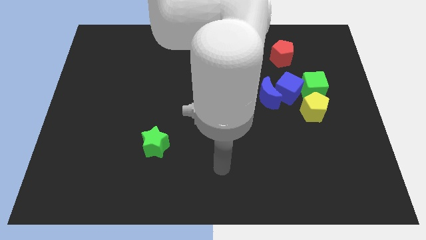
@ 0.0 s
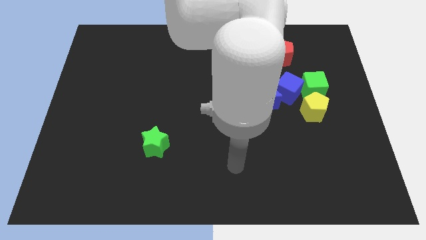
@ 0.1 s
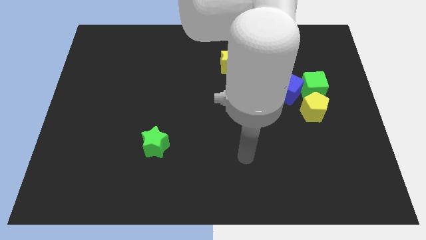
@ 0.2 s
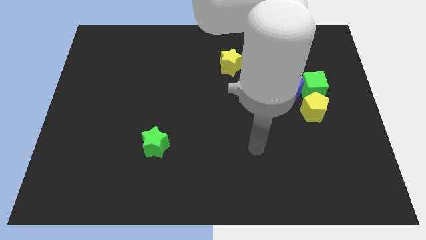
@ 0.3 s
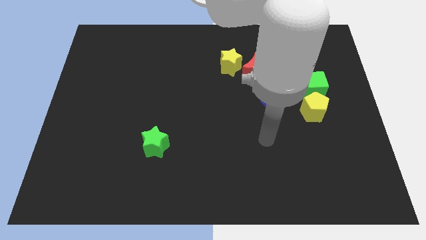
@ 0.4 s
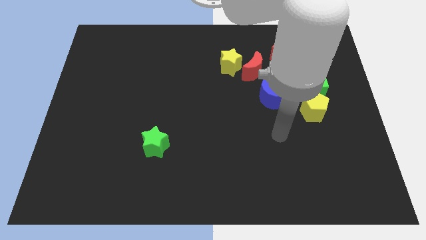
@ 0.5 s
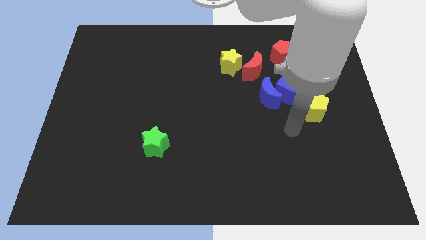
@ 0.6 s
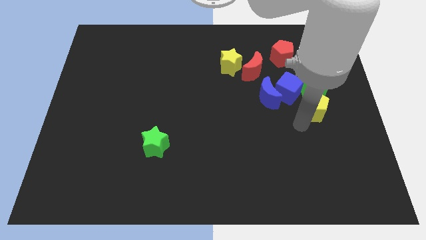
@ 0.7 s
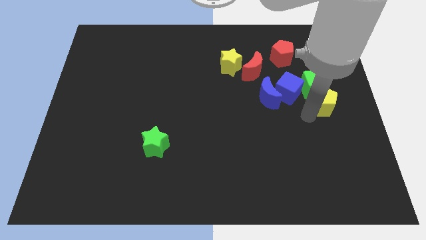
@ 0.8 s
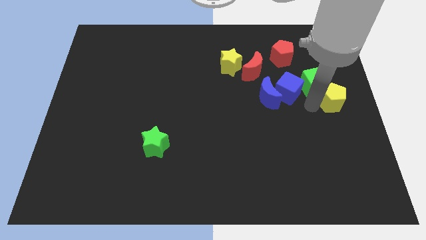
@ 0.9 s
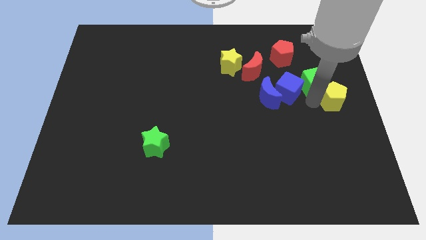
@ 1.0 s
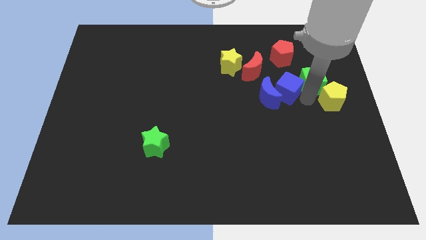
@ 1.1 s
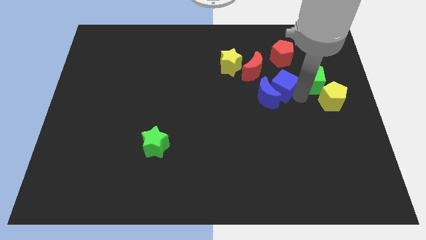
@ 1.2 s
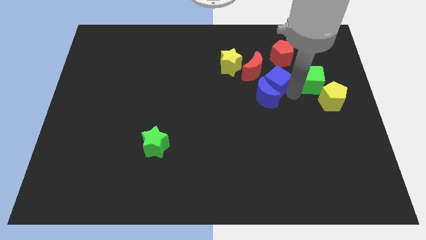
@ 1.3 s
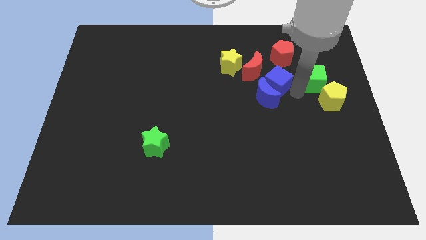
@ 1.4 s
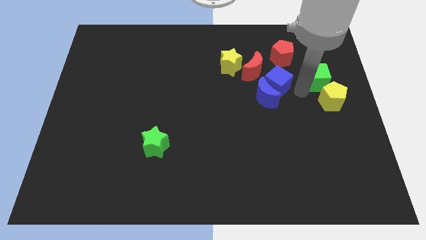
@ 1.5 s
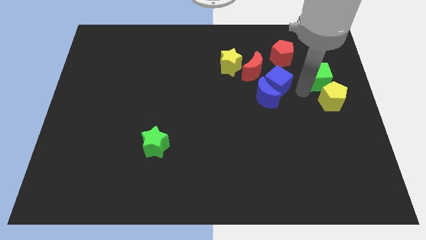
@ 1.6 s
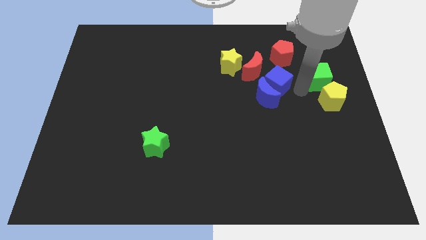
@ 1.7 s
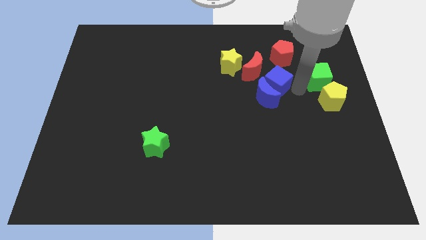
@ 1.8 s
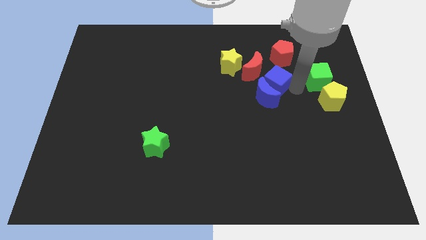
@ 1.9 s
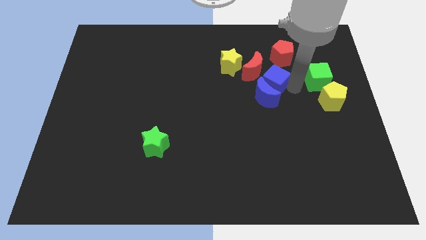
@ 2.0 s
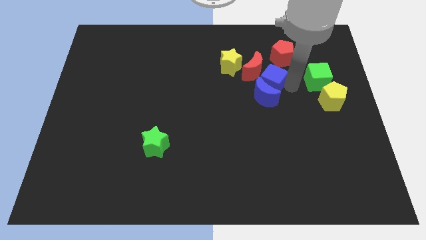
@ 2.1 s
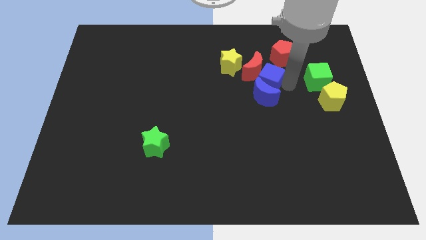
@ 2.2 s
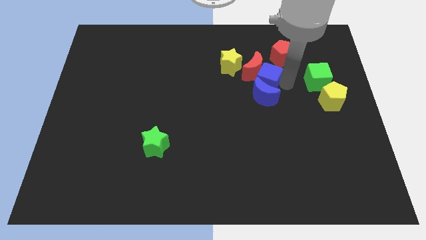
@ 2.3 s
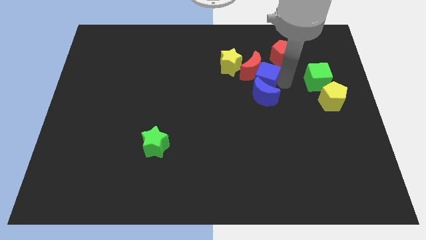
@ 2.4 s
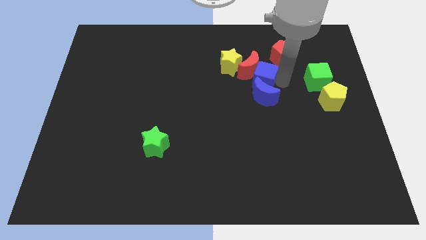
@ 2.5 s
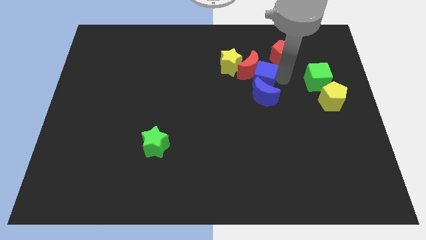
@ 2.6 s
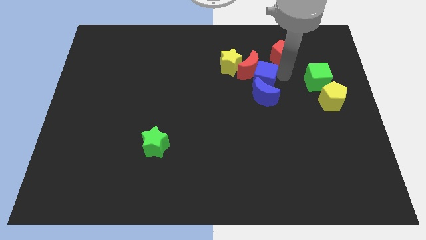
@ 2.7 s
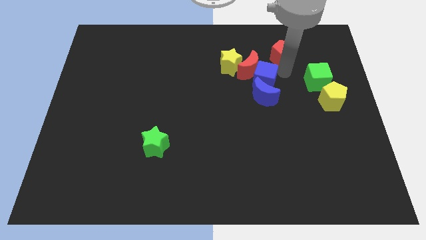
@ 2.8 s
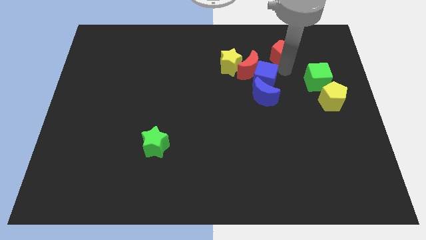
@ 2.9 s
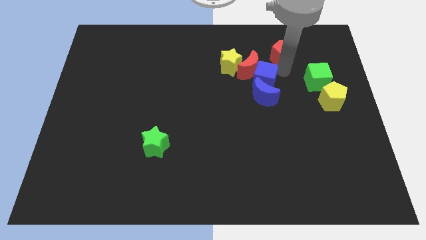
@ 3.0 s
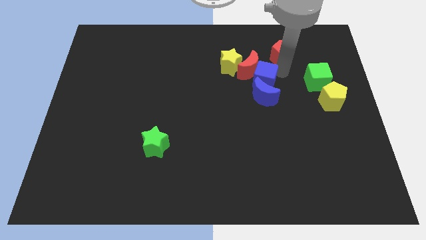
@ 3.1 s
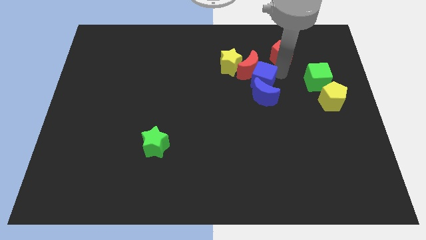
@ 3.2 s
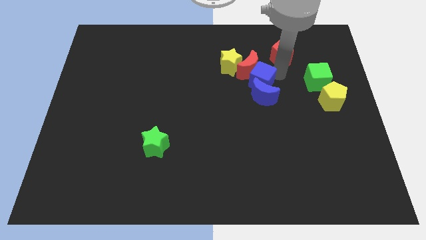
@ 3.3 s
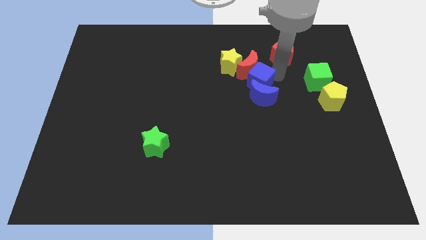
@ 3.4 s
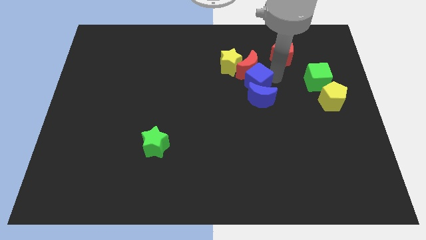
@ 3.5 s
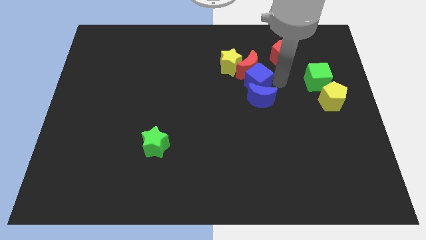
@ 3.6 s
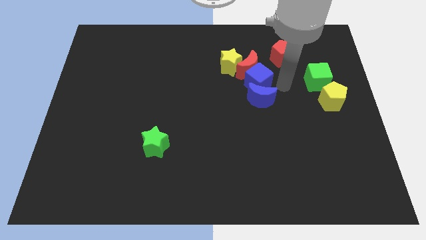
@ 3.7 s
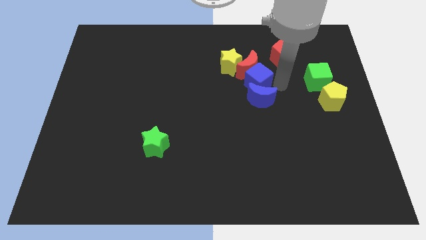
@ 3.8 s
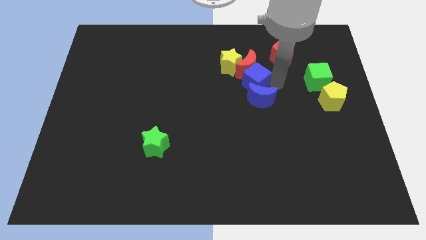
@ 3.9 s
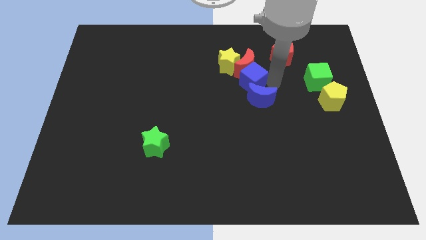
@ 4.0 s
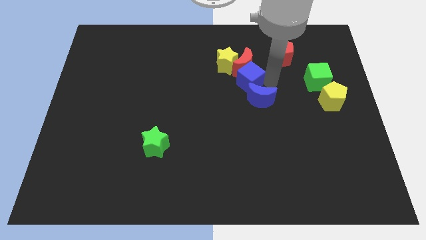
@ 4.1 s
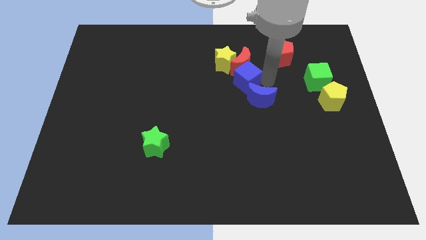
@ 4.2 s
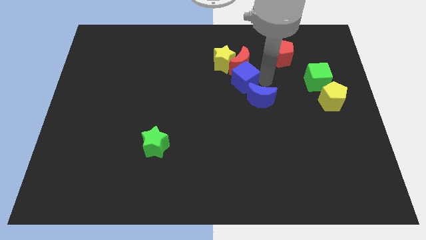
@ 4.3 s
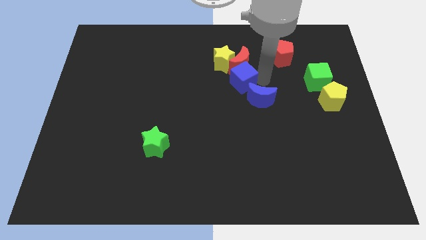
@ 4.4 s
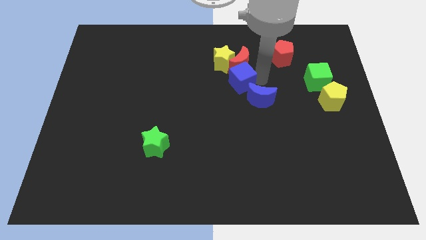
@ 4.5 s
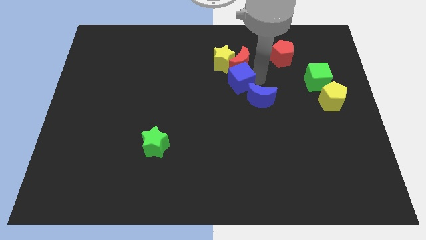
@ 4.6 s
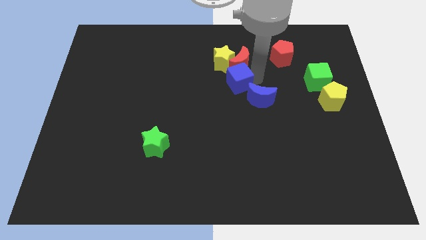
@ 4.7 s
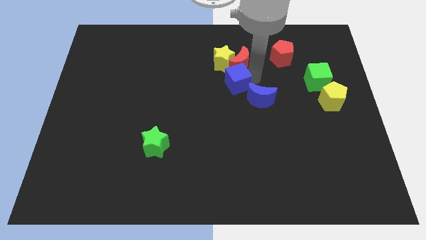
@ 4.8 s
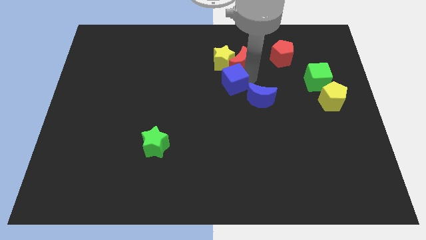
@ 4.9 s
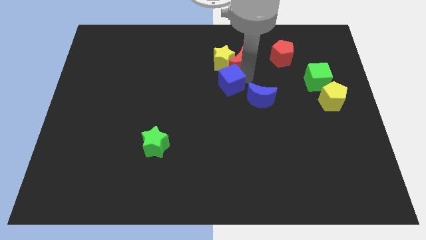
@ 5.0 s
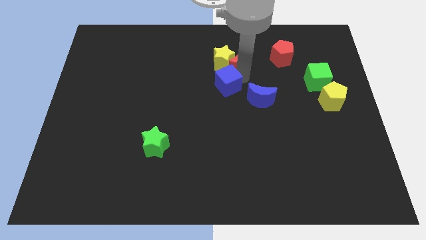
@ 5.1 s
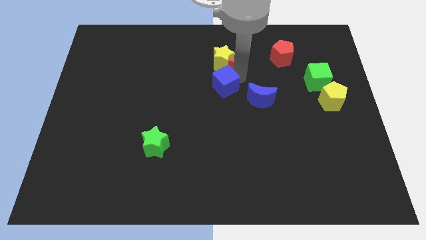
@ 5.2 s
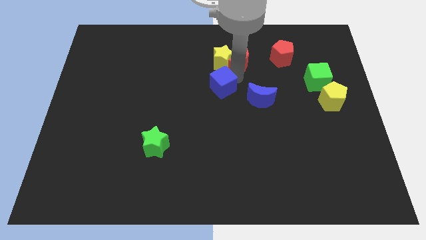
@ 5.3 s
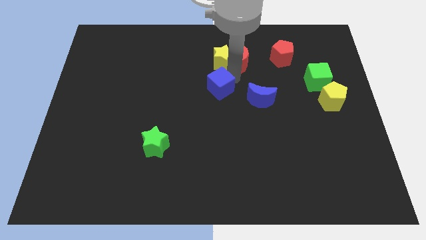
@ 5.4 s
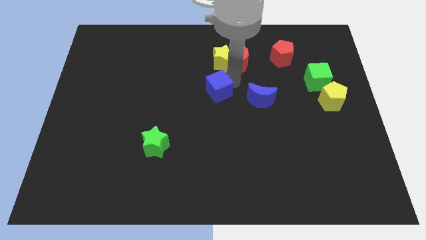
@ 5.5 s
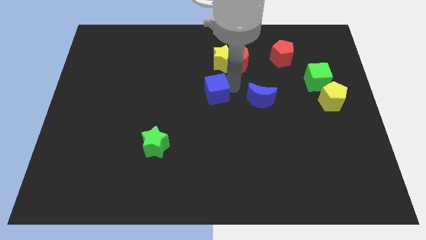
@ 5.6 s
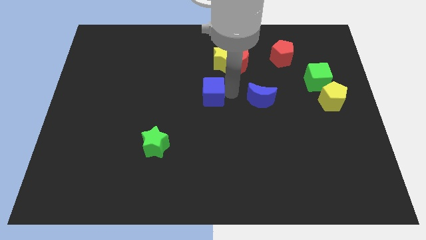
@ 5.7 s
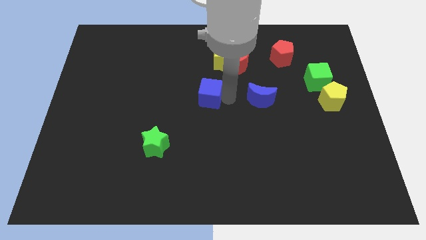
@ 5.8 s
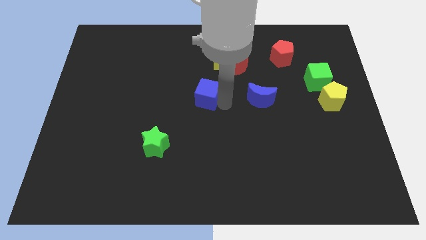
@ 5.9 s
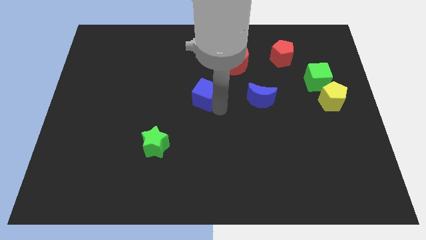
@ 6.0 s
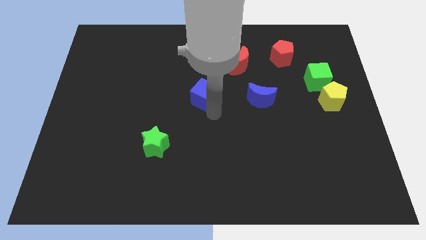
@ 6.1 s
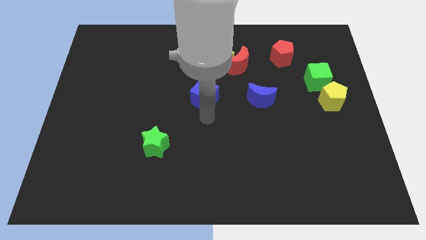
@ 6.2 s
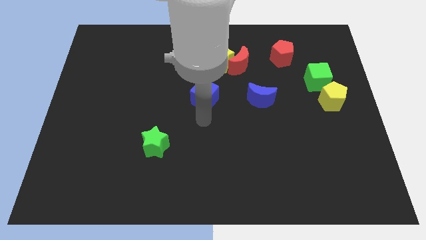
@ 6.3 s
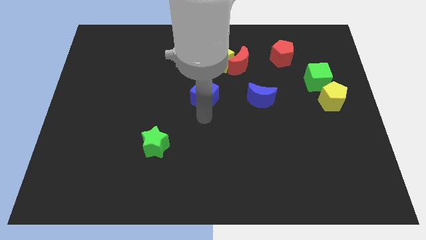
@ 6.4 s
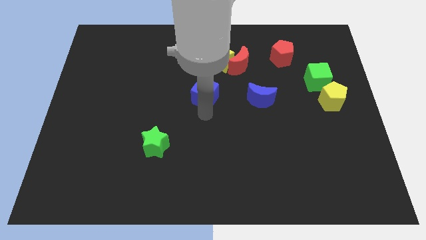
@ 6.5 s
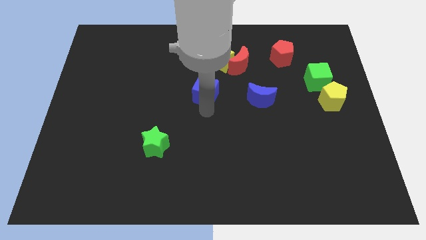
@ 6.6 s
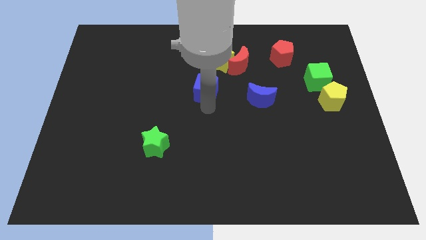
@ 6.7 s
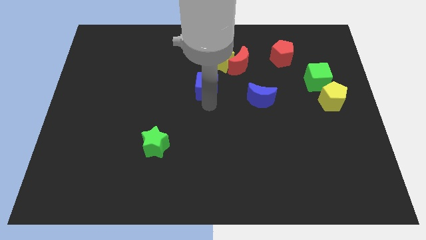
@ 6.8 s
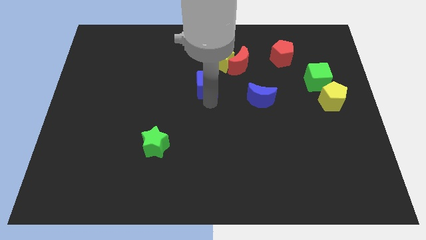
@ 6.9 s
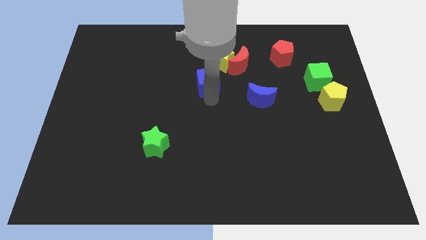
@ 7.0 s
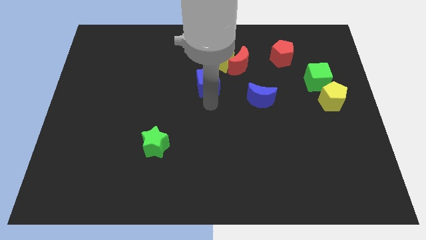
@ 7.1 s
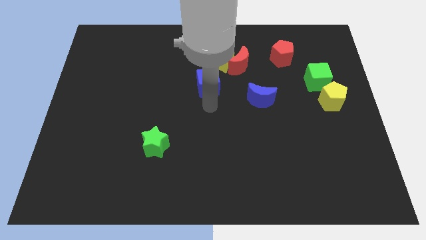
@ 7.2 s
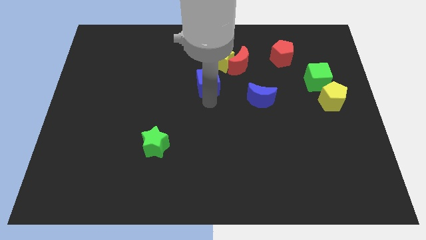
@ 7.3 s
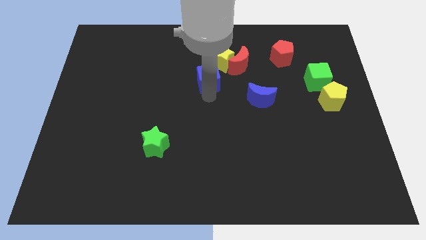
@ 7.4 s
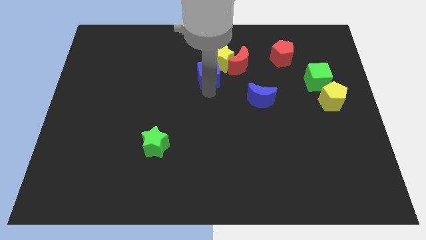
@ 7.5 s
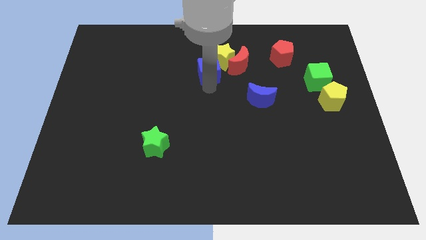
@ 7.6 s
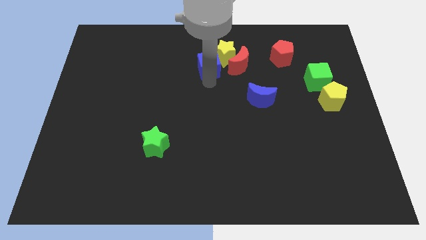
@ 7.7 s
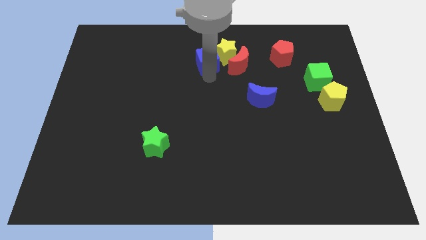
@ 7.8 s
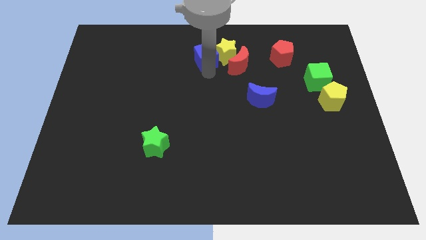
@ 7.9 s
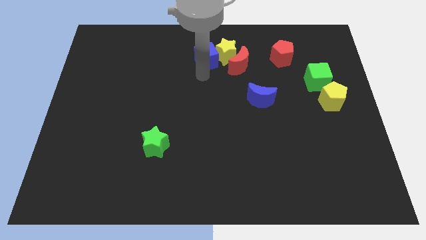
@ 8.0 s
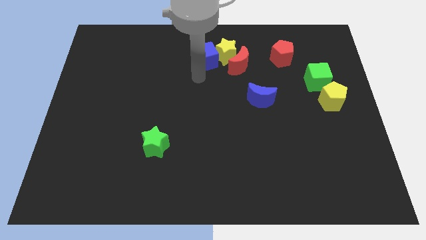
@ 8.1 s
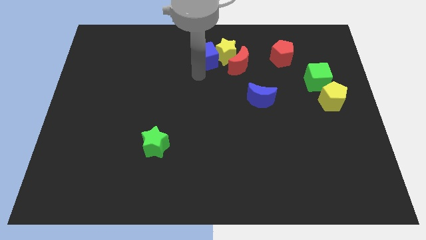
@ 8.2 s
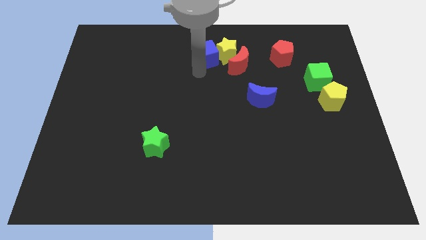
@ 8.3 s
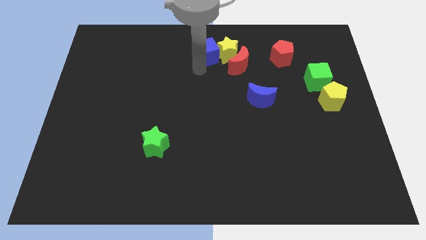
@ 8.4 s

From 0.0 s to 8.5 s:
move the blue cube to the towards your base
